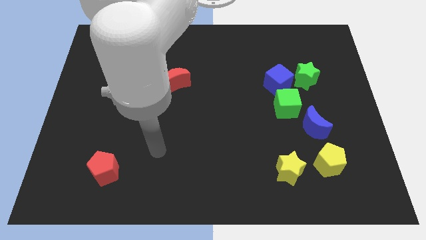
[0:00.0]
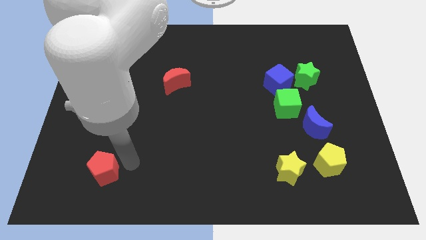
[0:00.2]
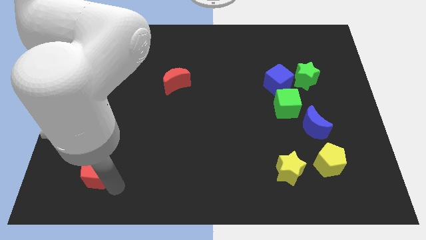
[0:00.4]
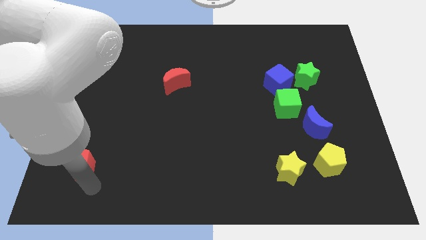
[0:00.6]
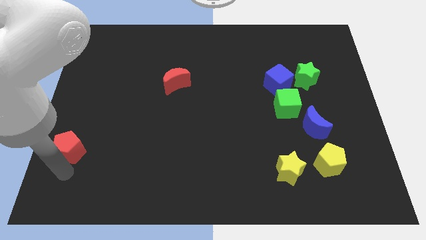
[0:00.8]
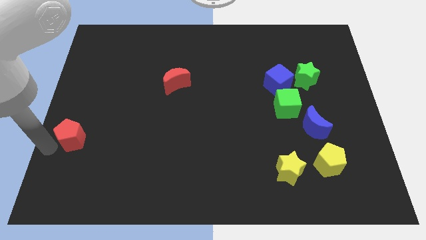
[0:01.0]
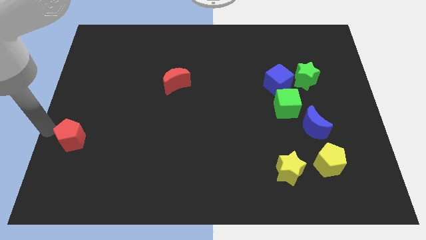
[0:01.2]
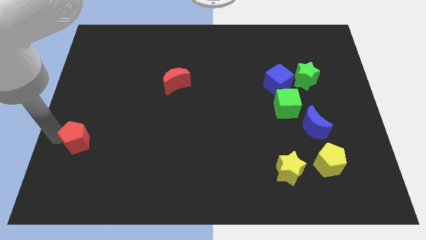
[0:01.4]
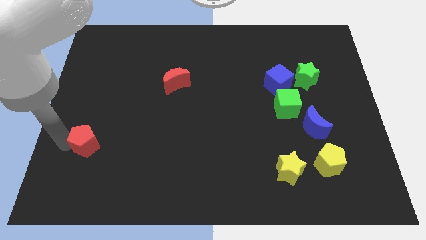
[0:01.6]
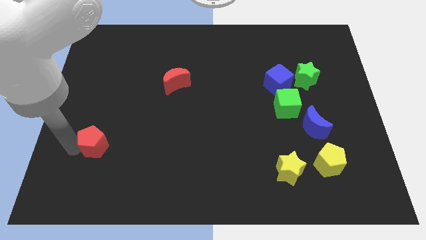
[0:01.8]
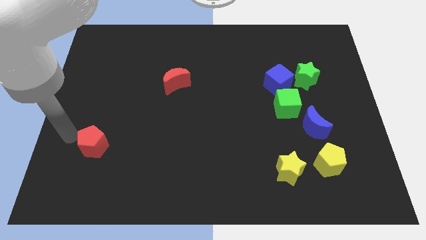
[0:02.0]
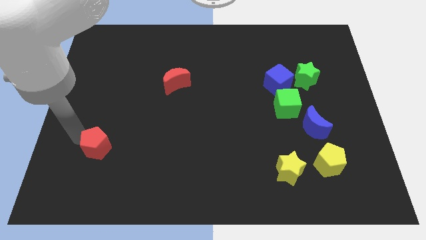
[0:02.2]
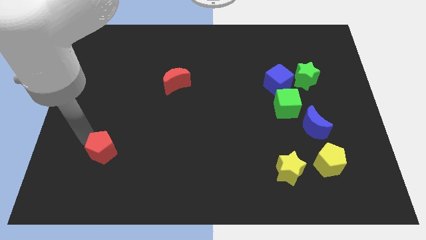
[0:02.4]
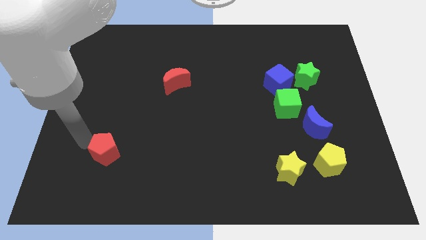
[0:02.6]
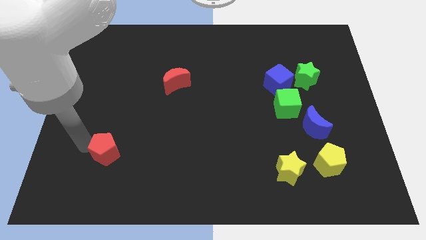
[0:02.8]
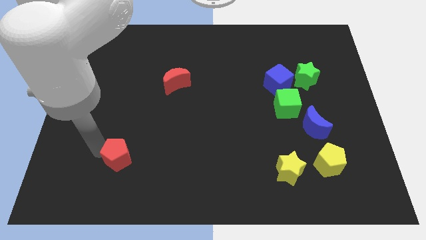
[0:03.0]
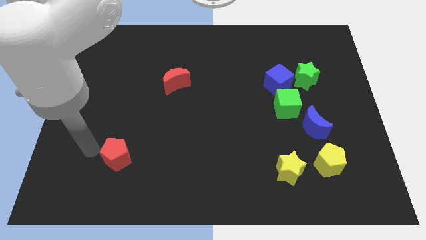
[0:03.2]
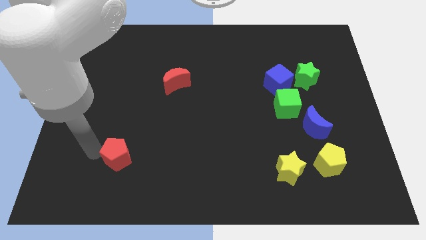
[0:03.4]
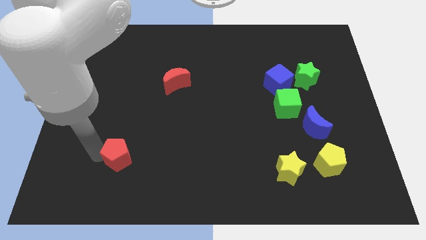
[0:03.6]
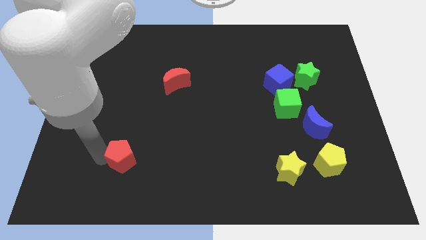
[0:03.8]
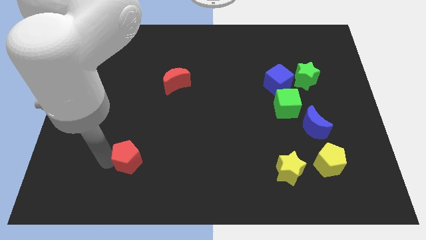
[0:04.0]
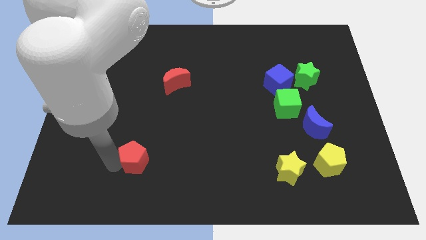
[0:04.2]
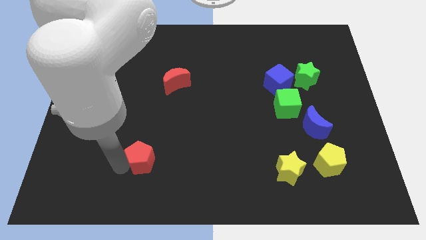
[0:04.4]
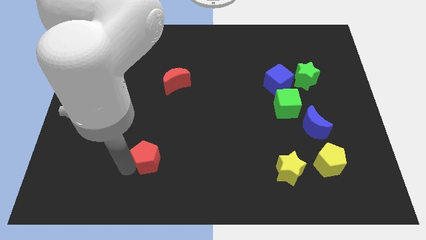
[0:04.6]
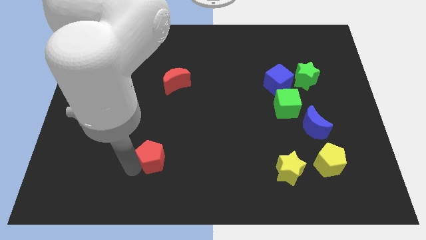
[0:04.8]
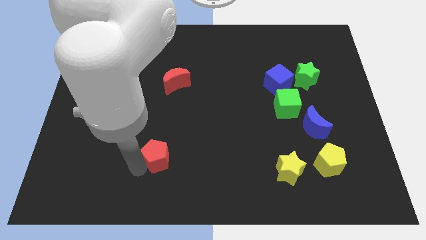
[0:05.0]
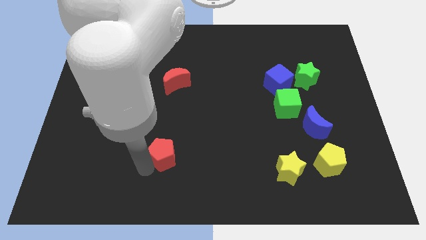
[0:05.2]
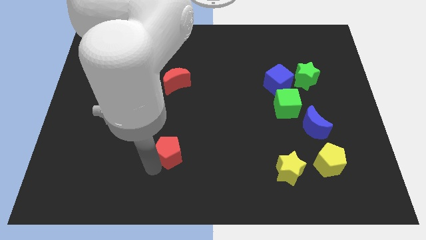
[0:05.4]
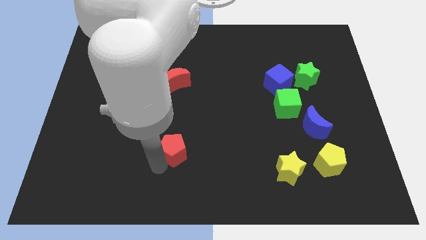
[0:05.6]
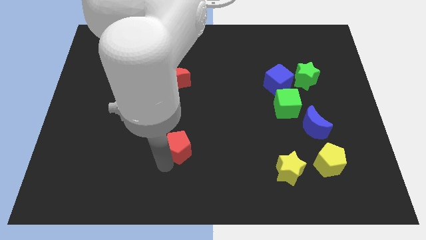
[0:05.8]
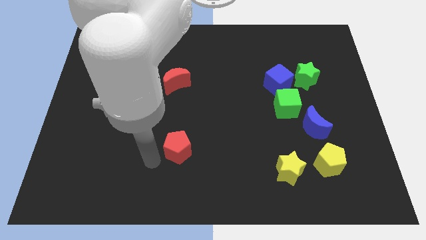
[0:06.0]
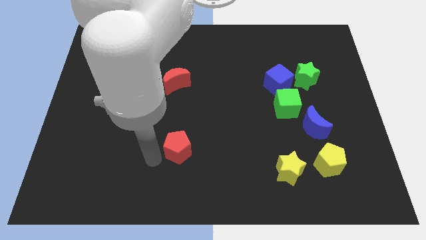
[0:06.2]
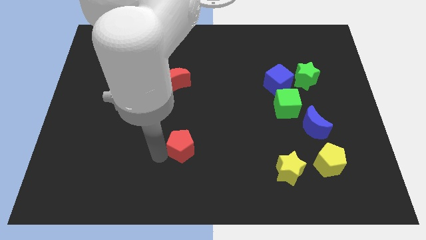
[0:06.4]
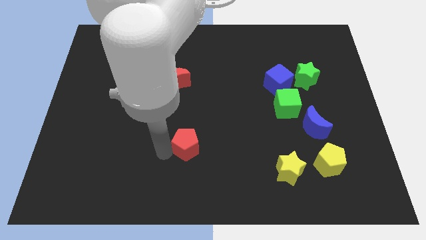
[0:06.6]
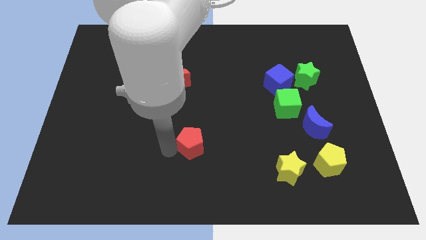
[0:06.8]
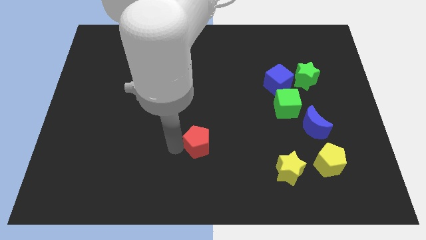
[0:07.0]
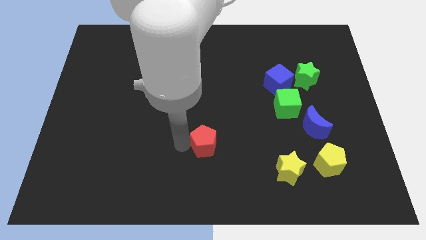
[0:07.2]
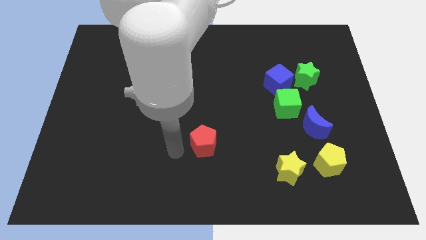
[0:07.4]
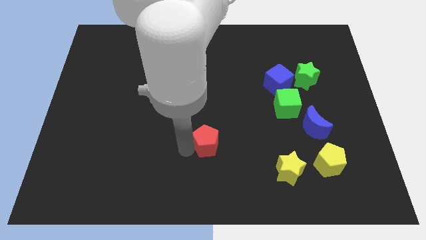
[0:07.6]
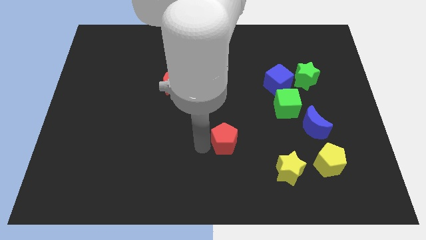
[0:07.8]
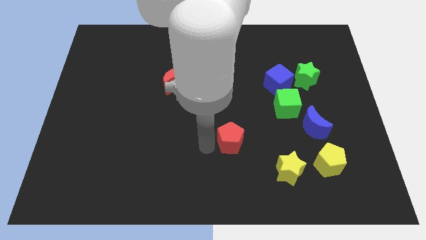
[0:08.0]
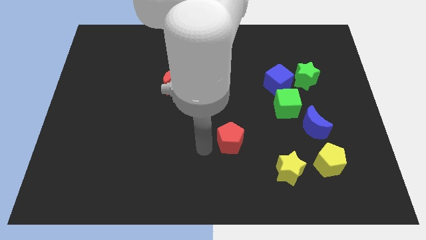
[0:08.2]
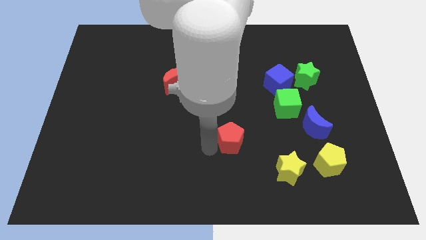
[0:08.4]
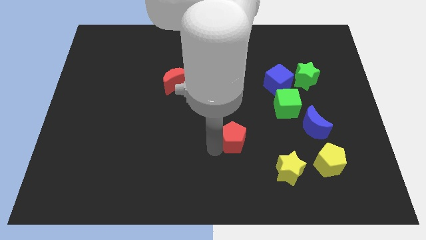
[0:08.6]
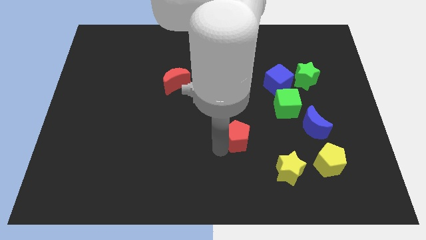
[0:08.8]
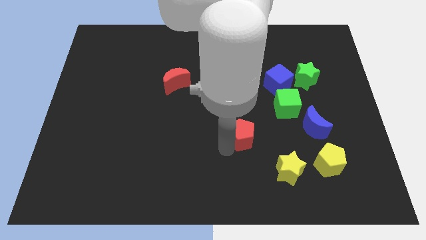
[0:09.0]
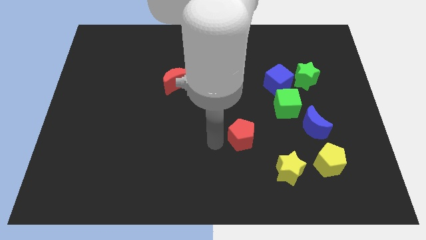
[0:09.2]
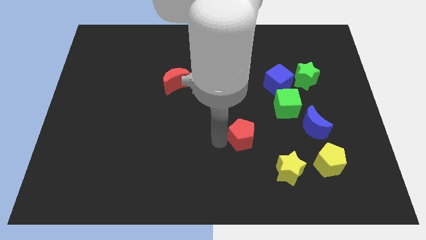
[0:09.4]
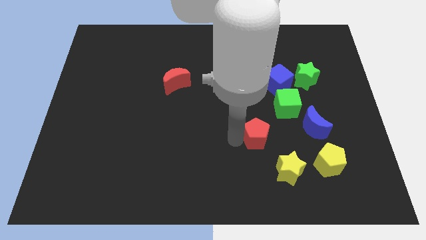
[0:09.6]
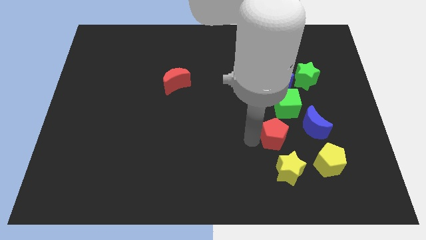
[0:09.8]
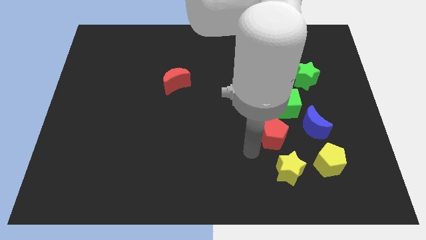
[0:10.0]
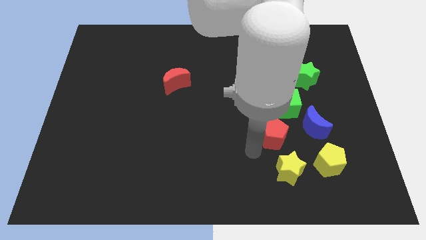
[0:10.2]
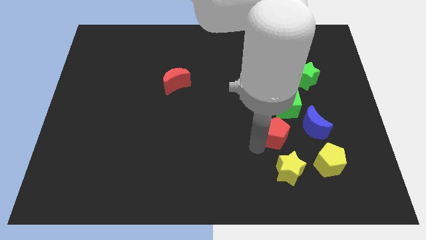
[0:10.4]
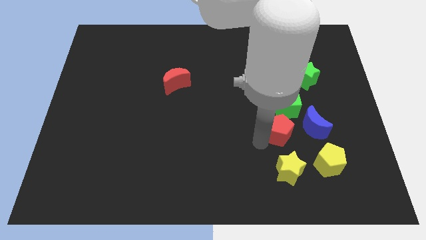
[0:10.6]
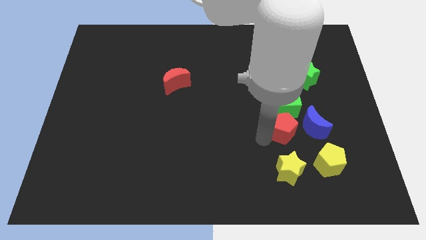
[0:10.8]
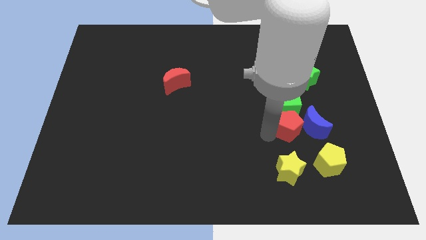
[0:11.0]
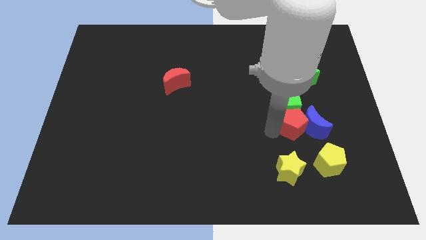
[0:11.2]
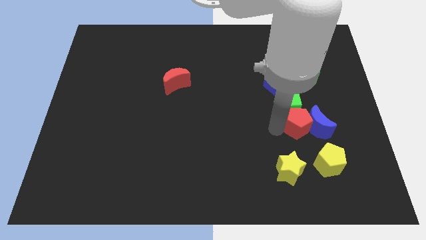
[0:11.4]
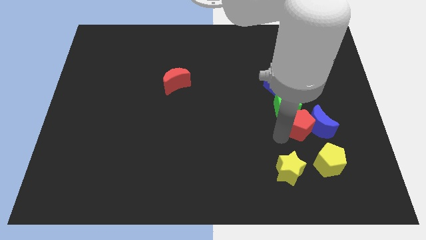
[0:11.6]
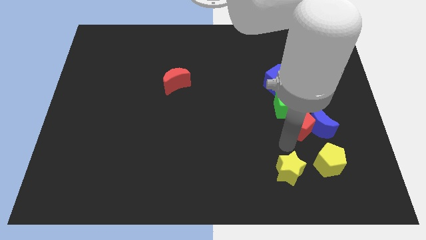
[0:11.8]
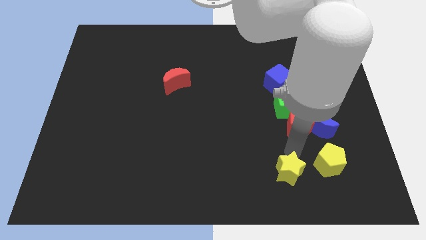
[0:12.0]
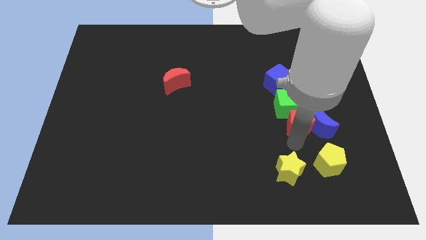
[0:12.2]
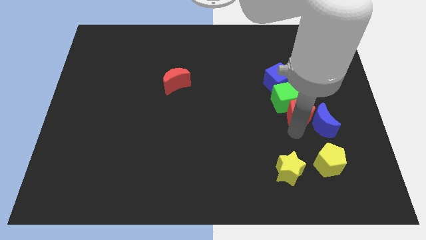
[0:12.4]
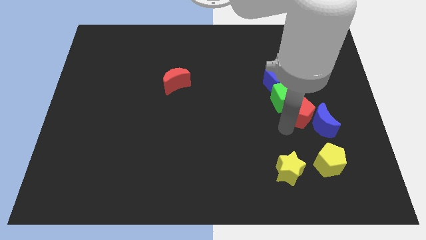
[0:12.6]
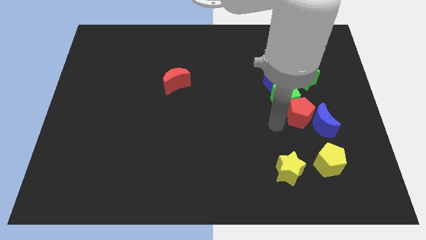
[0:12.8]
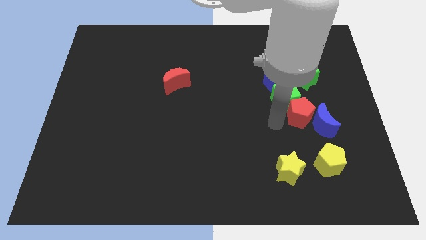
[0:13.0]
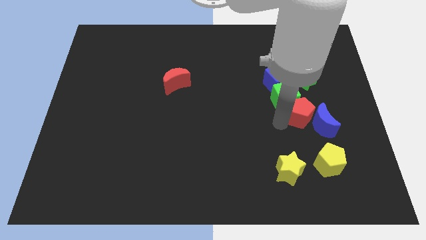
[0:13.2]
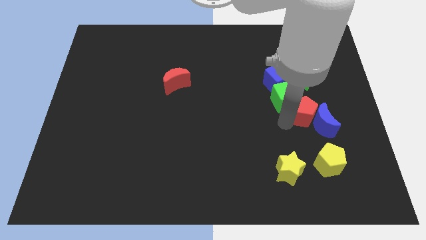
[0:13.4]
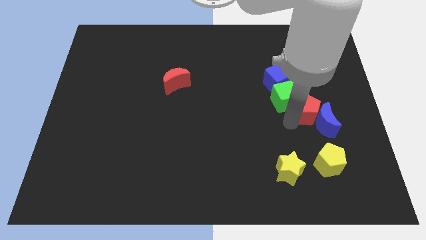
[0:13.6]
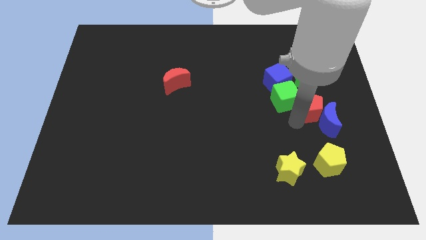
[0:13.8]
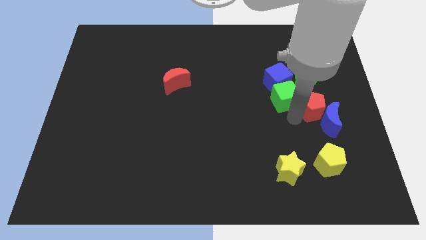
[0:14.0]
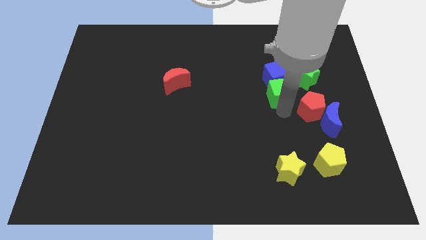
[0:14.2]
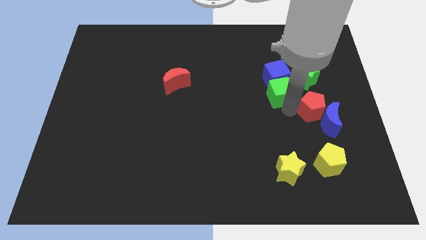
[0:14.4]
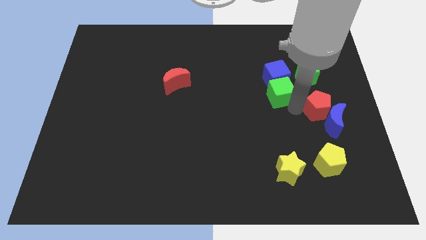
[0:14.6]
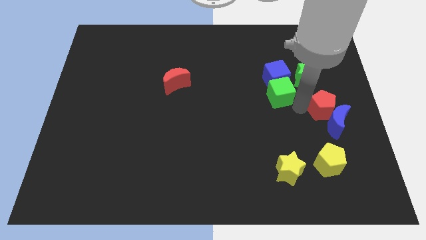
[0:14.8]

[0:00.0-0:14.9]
slide the red pentagon to the center right
